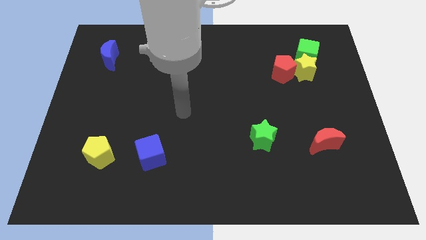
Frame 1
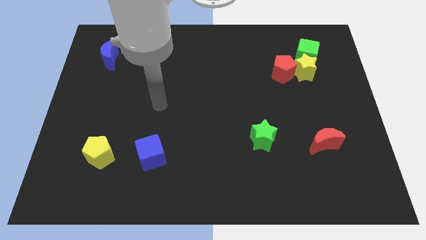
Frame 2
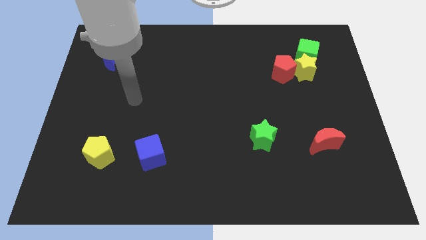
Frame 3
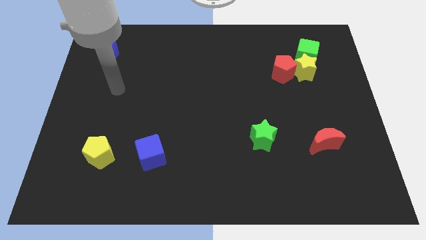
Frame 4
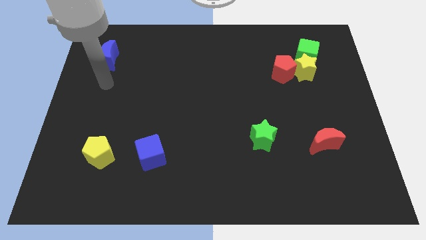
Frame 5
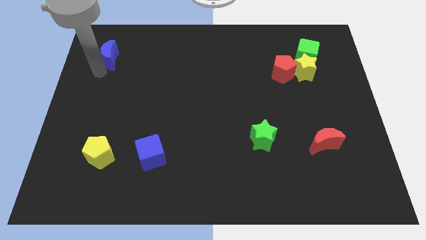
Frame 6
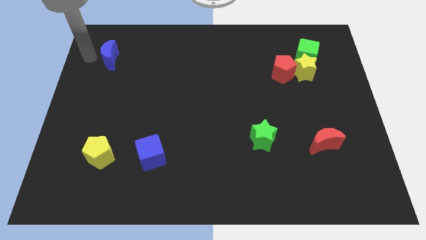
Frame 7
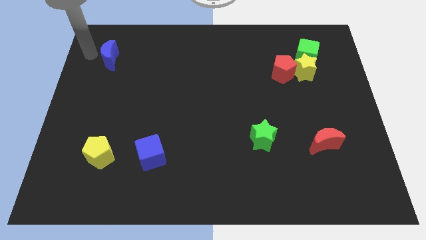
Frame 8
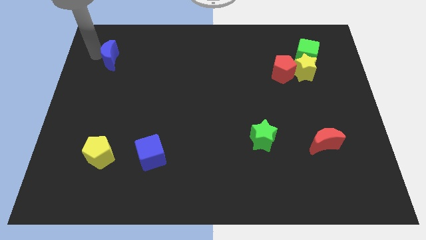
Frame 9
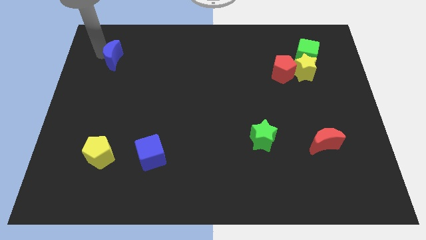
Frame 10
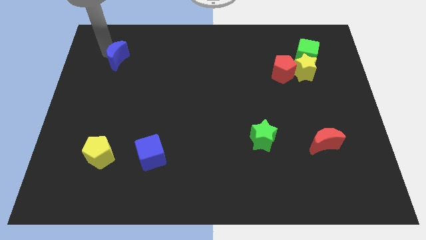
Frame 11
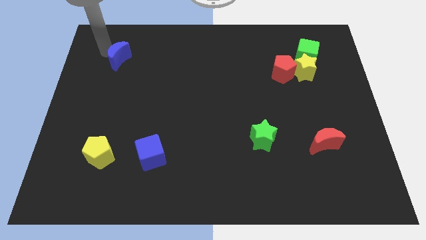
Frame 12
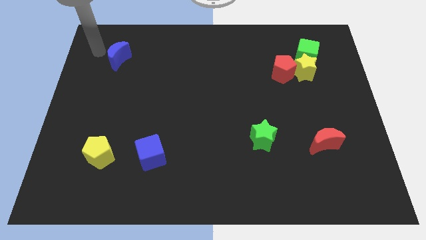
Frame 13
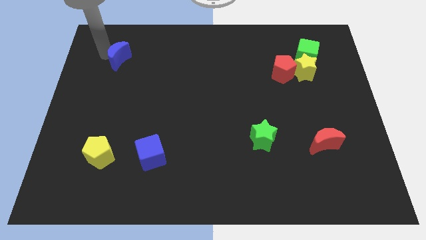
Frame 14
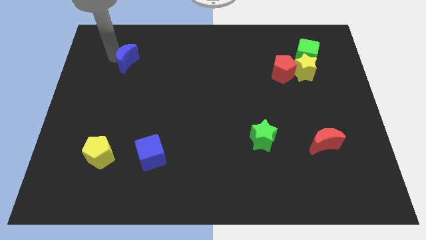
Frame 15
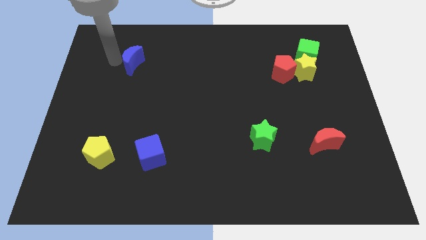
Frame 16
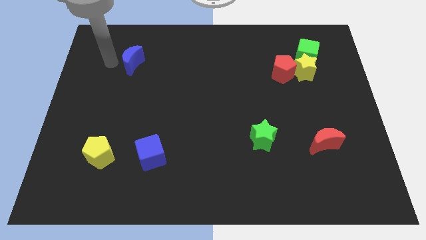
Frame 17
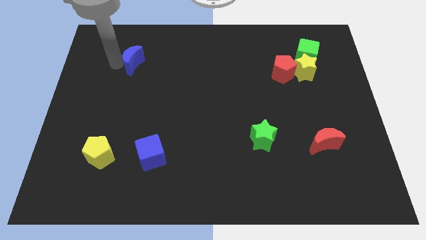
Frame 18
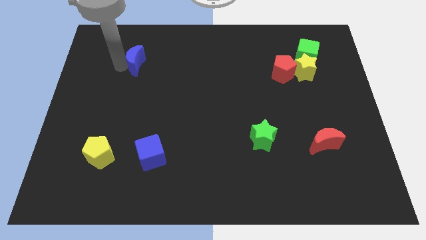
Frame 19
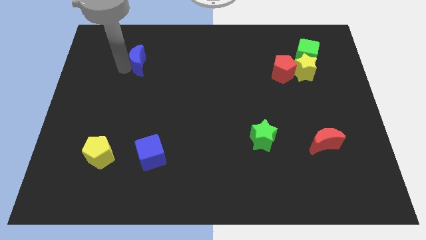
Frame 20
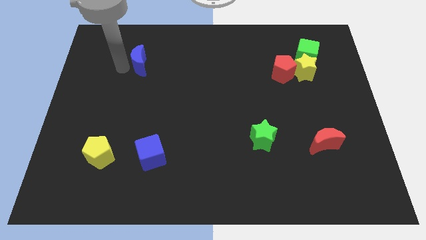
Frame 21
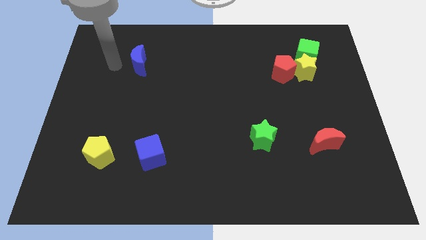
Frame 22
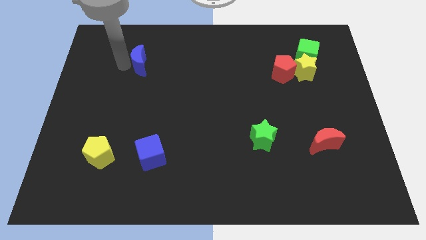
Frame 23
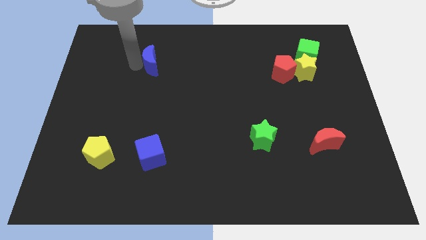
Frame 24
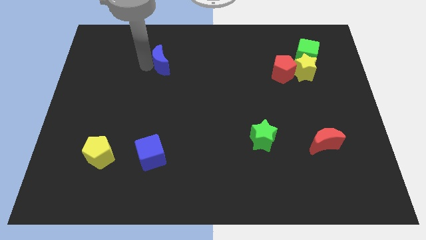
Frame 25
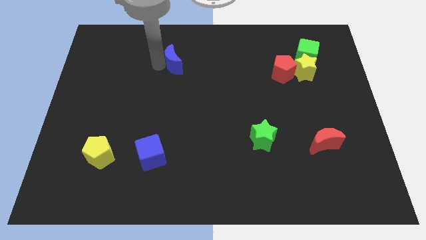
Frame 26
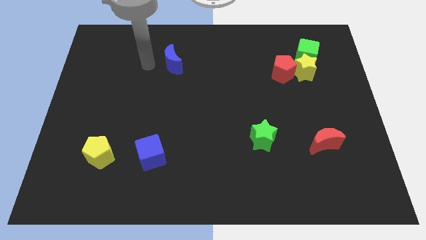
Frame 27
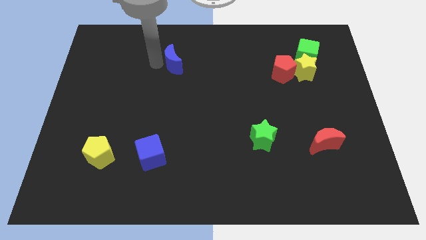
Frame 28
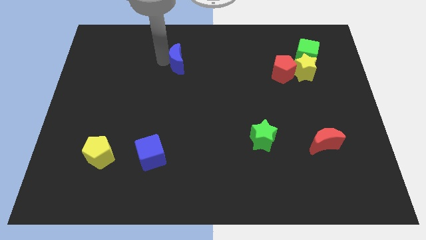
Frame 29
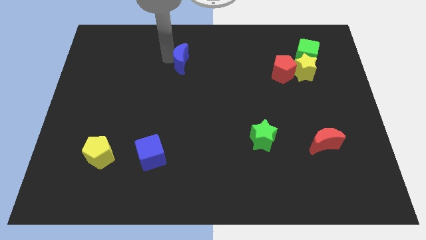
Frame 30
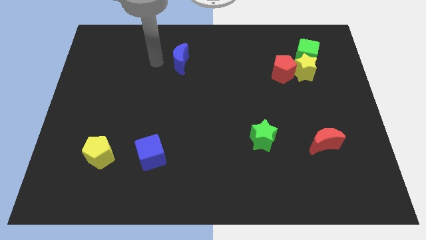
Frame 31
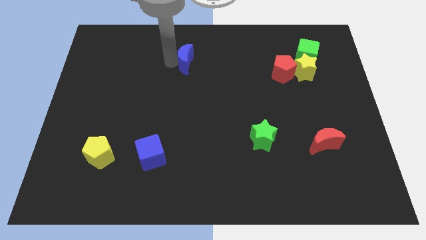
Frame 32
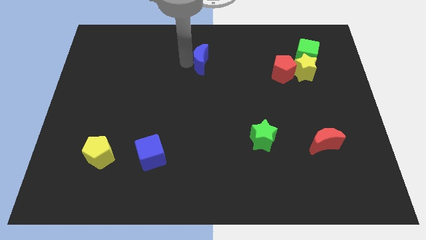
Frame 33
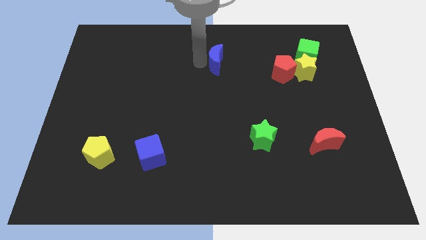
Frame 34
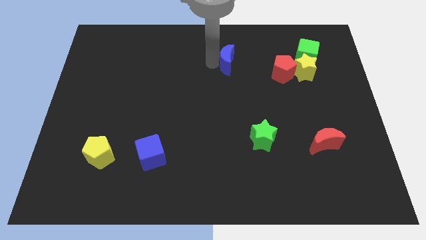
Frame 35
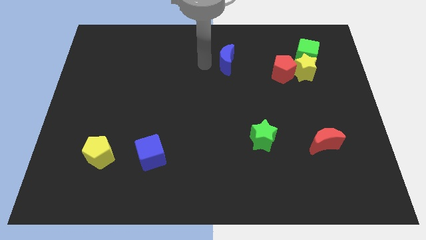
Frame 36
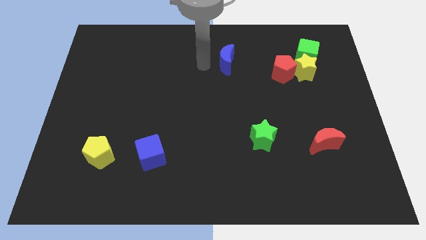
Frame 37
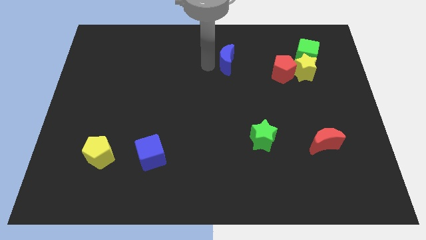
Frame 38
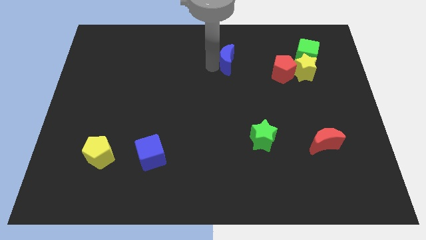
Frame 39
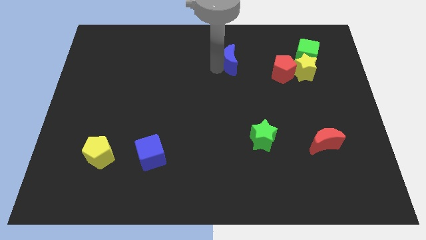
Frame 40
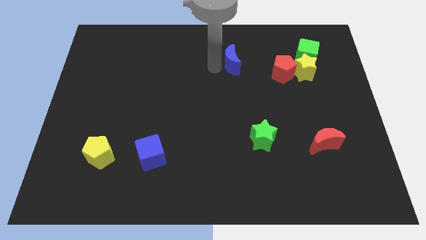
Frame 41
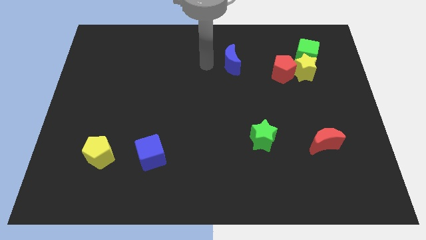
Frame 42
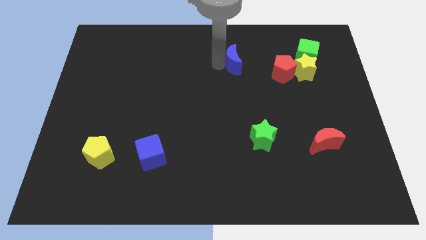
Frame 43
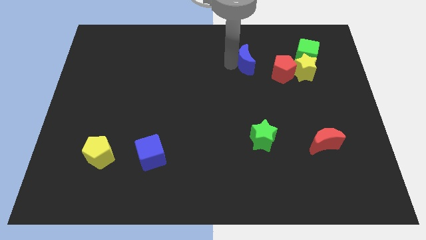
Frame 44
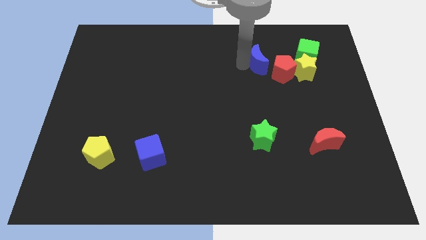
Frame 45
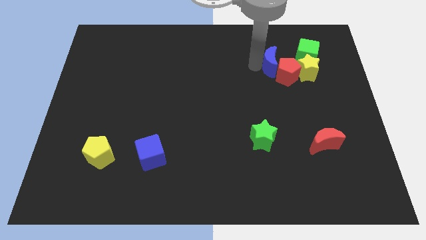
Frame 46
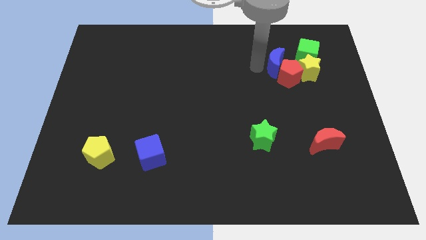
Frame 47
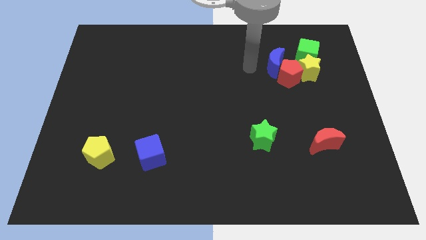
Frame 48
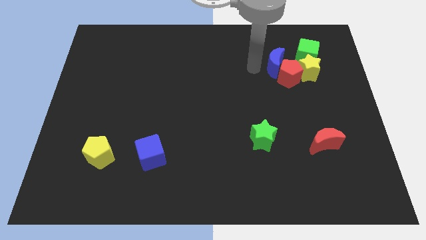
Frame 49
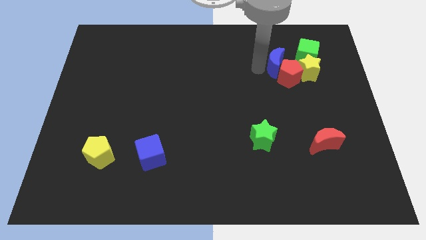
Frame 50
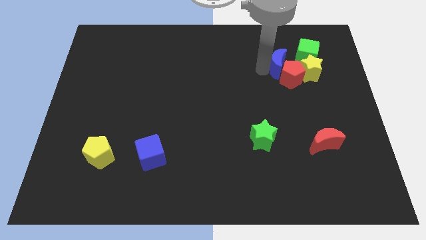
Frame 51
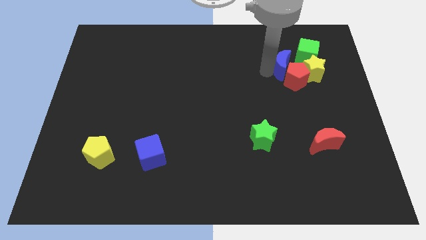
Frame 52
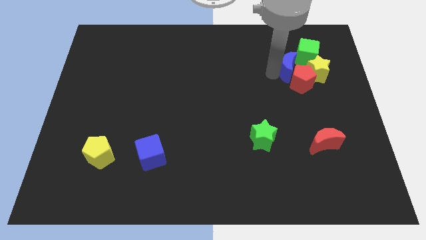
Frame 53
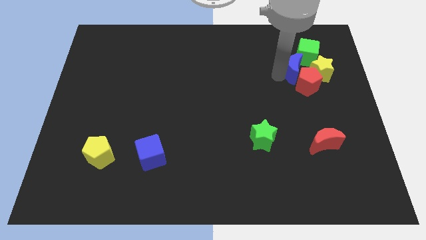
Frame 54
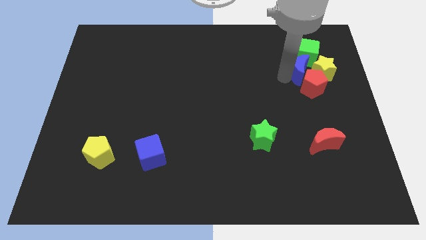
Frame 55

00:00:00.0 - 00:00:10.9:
push the blue moon next to the yellow star

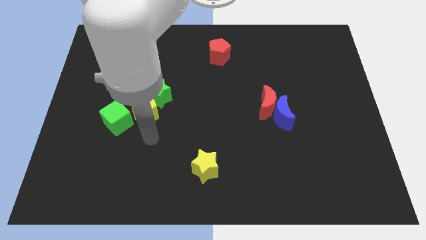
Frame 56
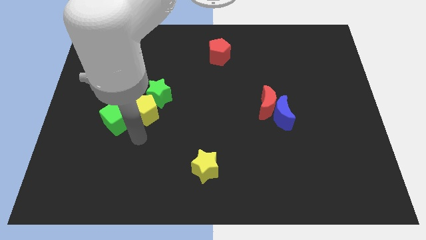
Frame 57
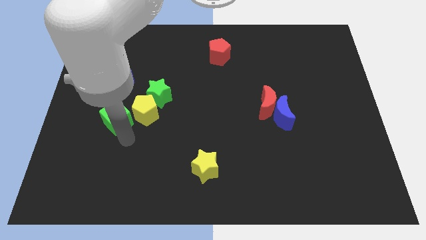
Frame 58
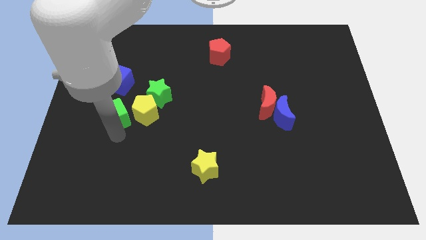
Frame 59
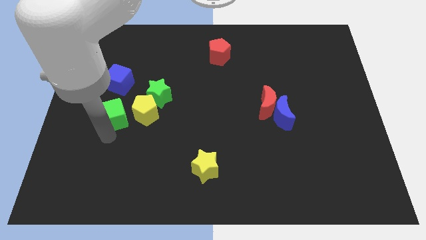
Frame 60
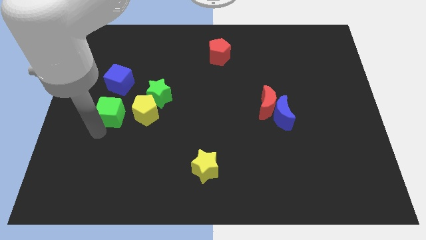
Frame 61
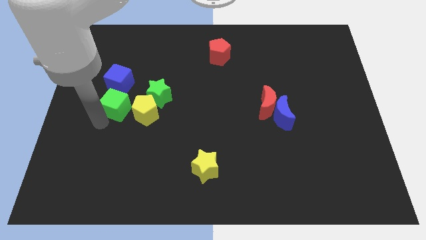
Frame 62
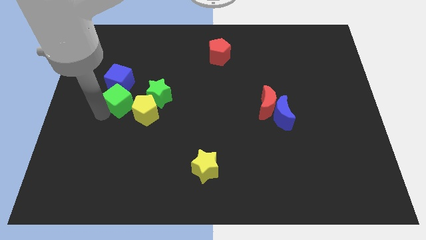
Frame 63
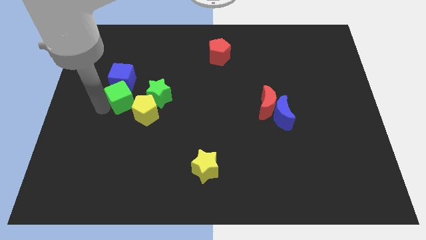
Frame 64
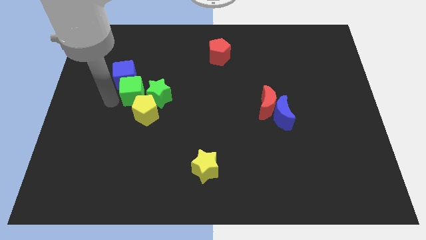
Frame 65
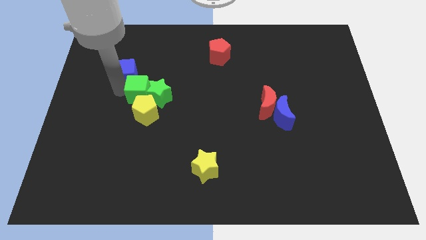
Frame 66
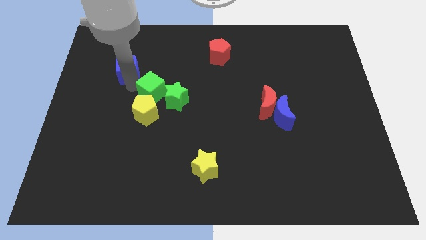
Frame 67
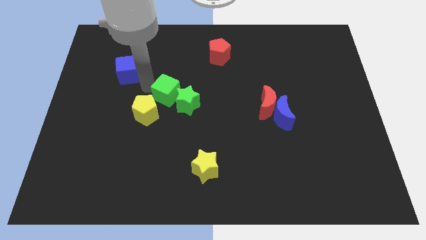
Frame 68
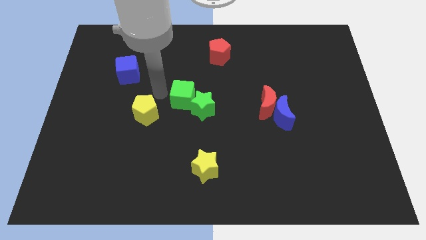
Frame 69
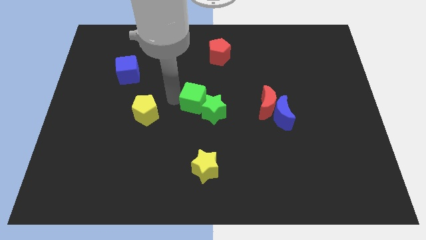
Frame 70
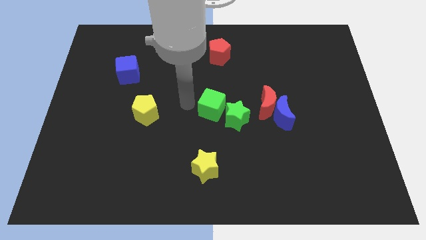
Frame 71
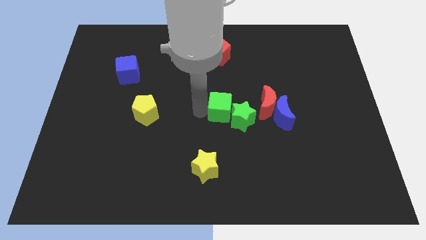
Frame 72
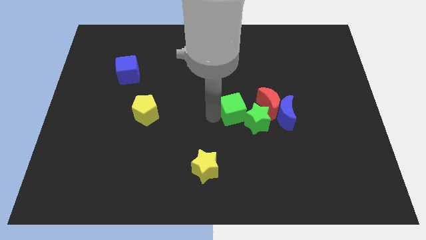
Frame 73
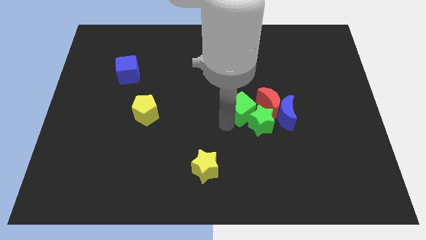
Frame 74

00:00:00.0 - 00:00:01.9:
put the green star to the blue moon
